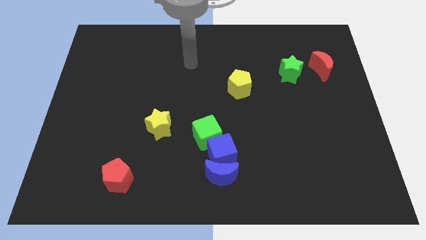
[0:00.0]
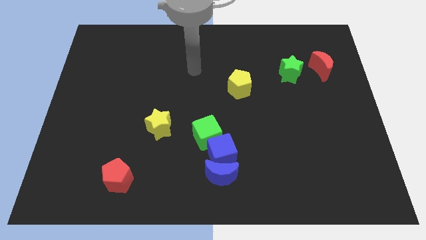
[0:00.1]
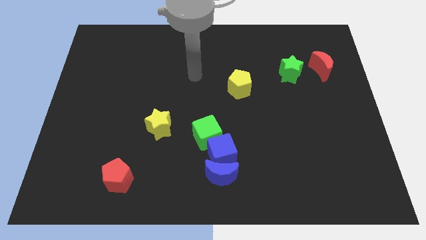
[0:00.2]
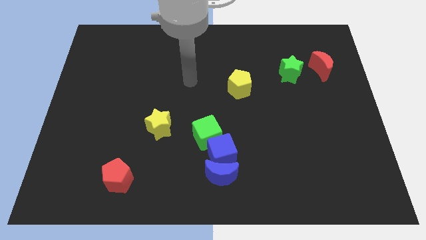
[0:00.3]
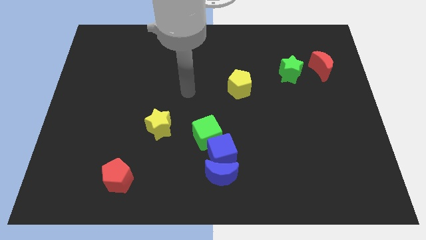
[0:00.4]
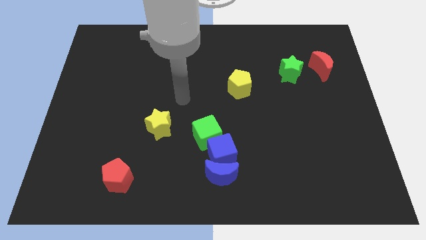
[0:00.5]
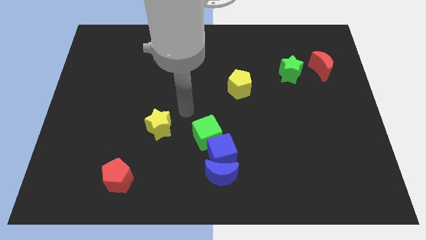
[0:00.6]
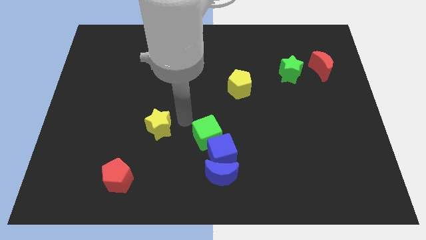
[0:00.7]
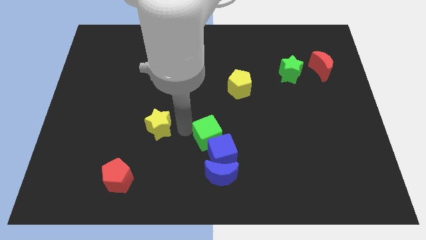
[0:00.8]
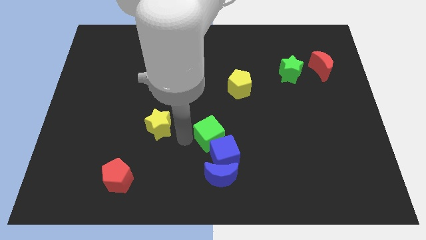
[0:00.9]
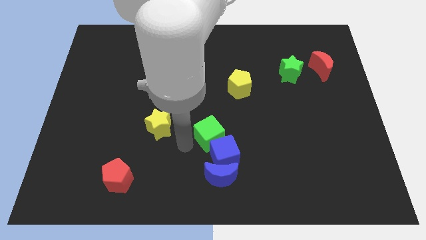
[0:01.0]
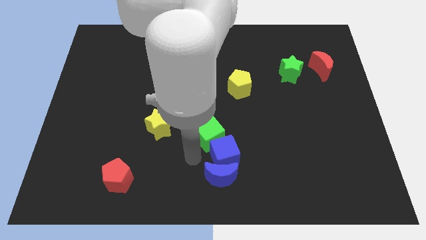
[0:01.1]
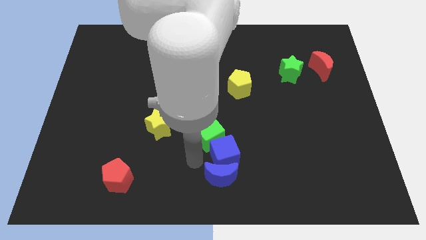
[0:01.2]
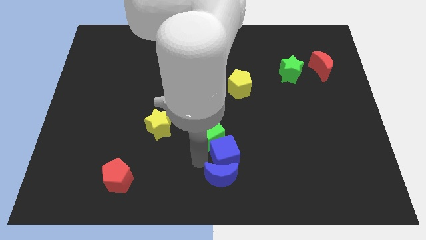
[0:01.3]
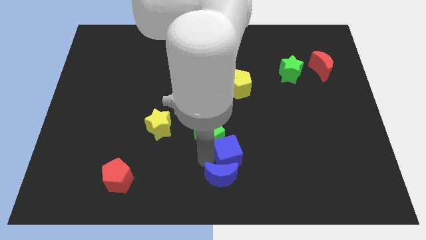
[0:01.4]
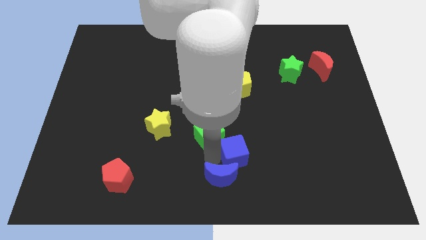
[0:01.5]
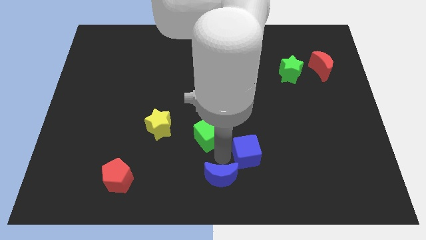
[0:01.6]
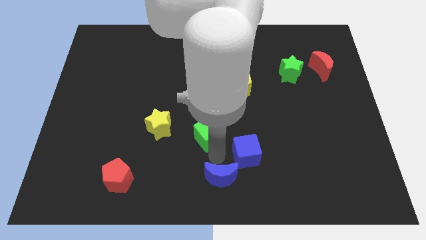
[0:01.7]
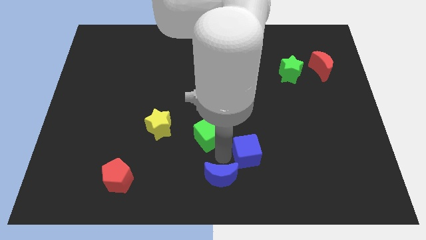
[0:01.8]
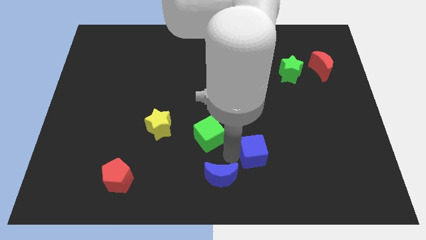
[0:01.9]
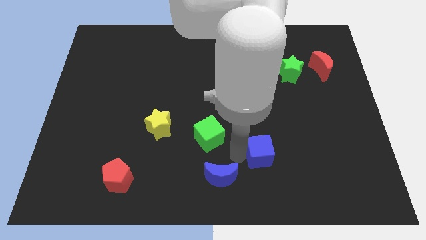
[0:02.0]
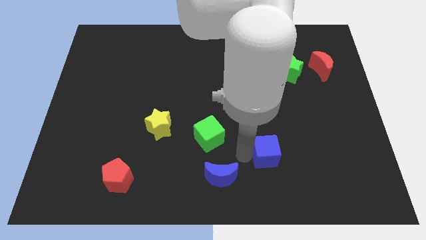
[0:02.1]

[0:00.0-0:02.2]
separate the blue cube from the blue moon and green cube

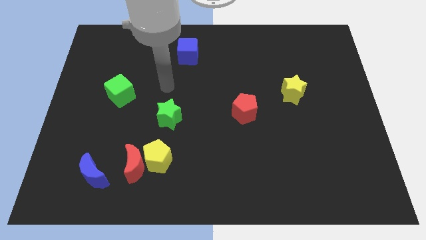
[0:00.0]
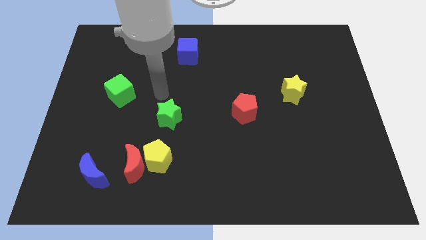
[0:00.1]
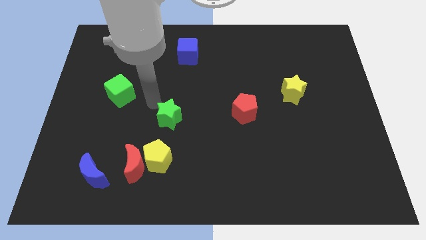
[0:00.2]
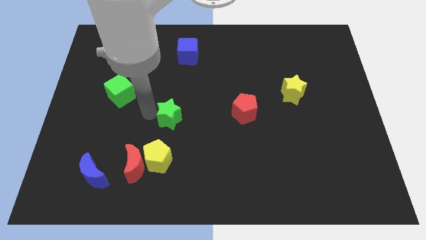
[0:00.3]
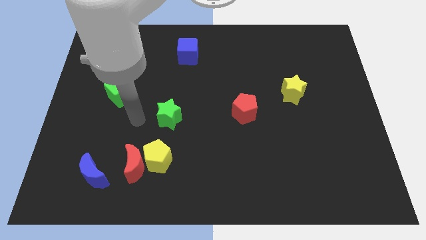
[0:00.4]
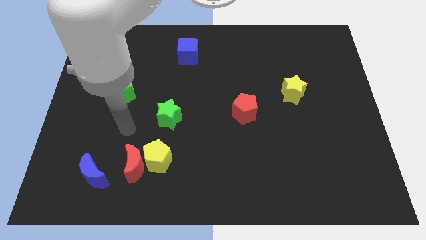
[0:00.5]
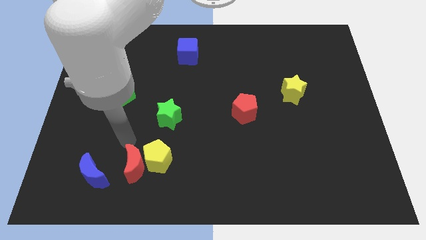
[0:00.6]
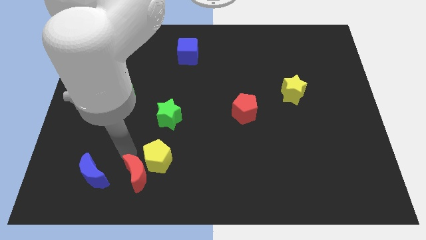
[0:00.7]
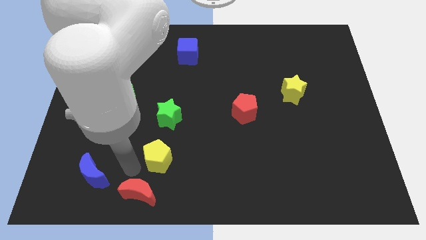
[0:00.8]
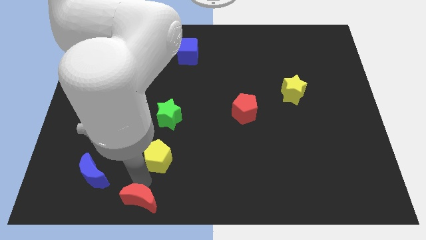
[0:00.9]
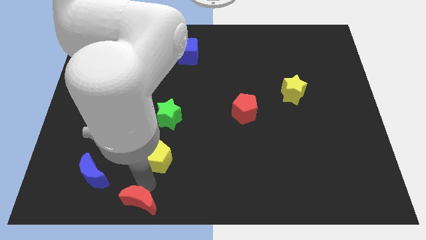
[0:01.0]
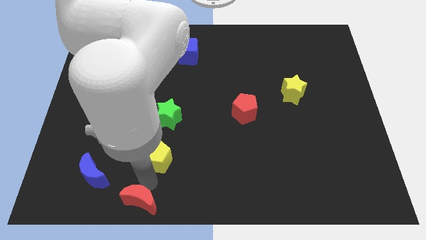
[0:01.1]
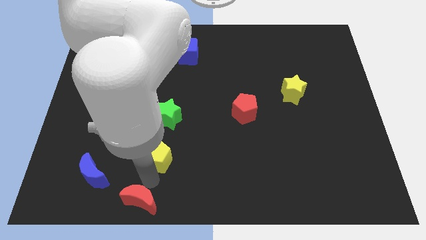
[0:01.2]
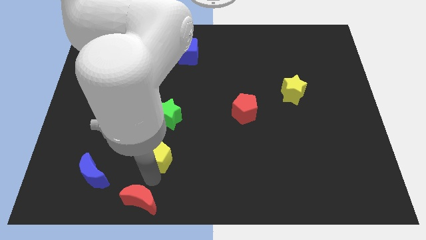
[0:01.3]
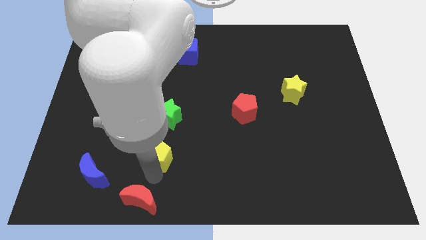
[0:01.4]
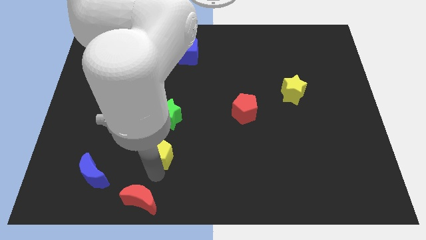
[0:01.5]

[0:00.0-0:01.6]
pull the yellow pentagon apart from the red moon

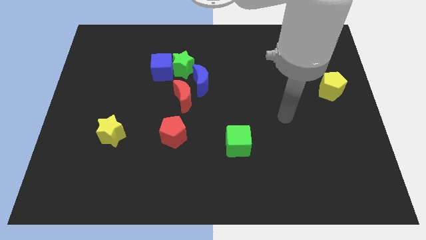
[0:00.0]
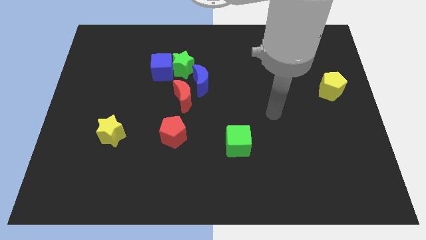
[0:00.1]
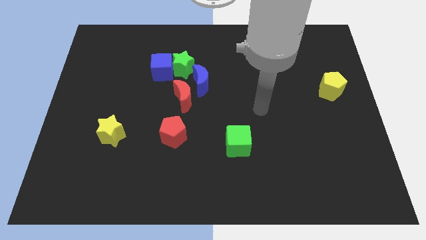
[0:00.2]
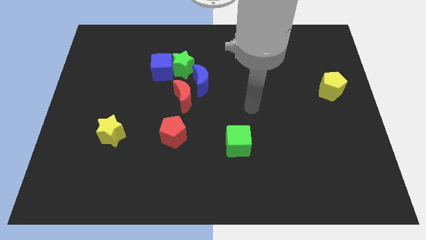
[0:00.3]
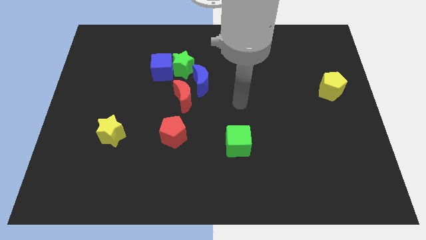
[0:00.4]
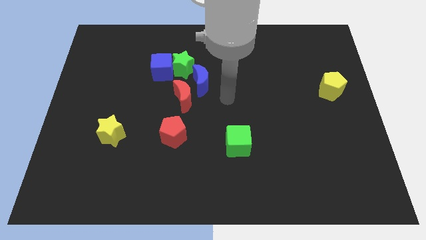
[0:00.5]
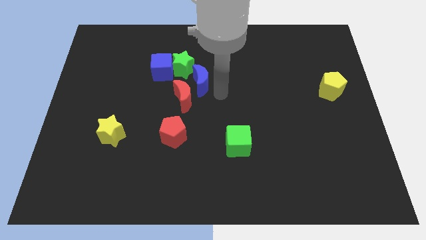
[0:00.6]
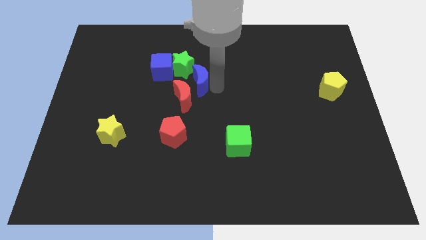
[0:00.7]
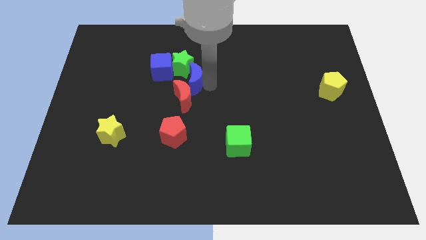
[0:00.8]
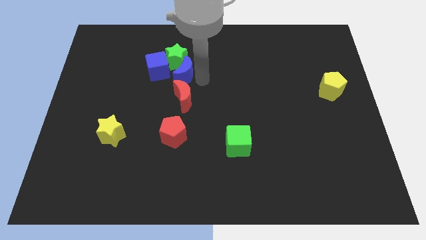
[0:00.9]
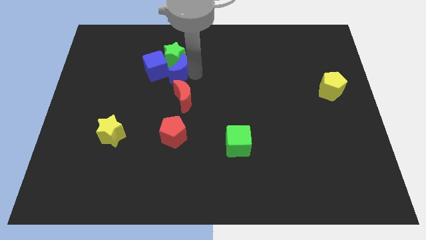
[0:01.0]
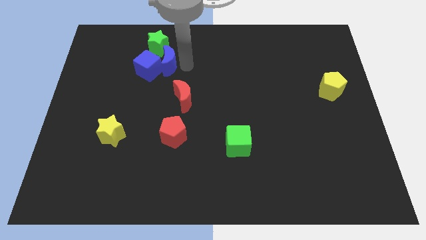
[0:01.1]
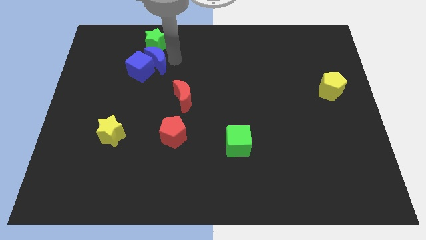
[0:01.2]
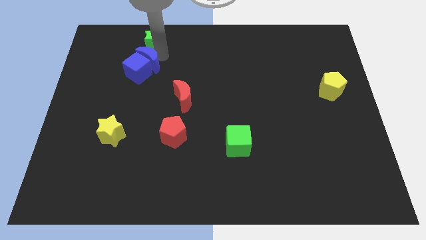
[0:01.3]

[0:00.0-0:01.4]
move the blue cube away from the green star

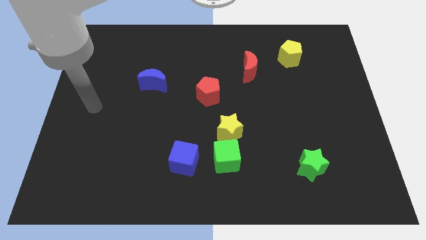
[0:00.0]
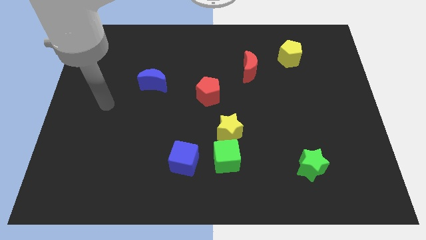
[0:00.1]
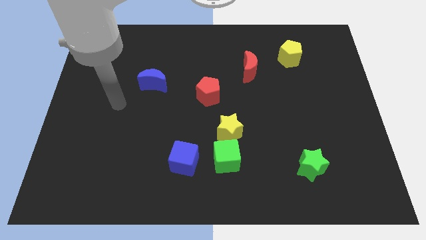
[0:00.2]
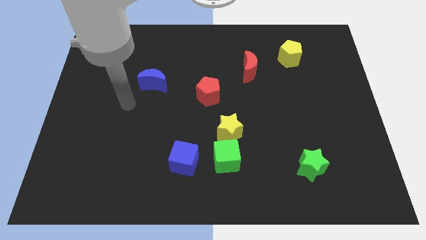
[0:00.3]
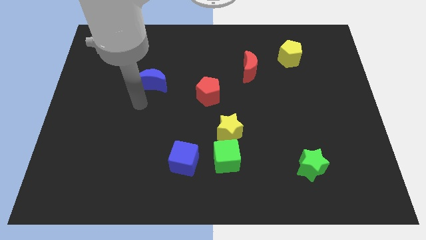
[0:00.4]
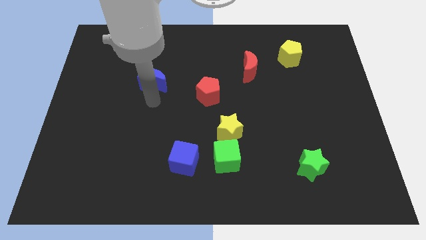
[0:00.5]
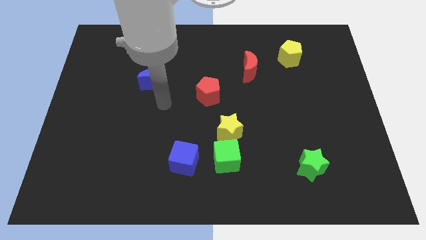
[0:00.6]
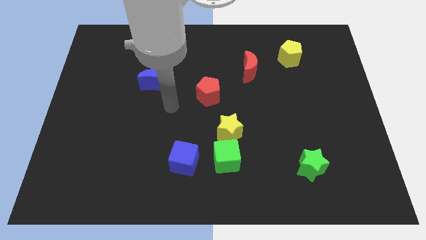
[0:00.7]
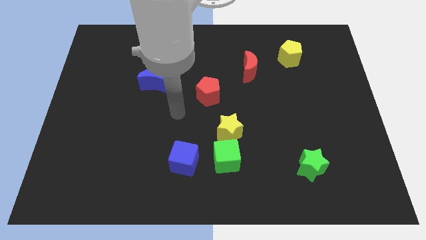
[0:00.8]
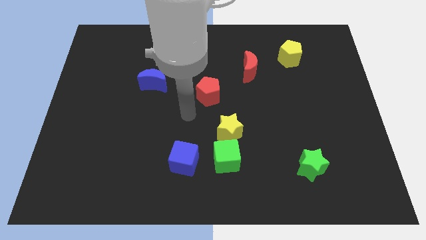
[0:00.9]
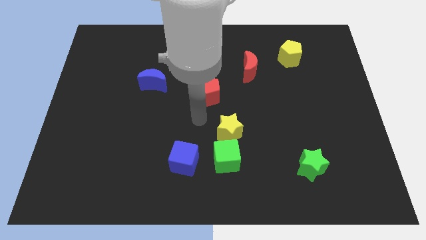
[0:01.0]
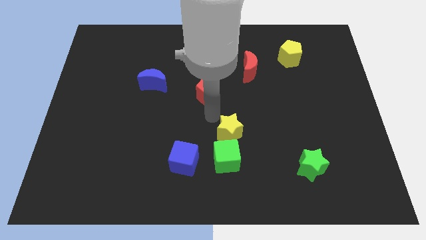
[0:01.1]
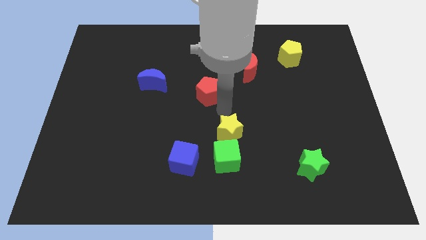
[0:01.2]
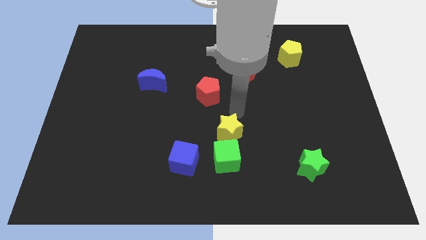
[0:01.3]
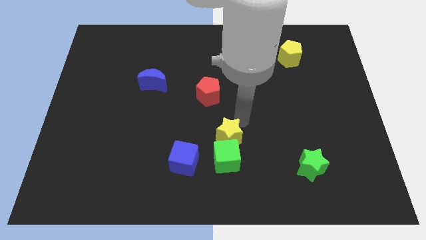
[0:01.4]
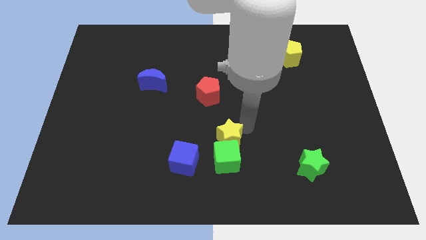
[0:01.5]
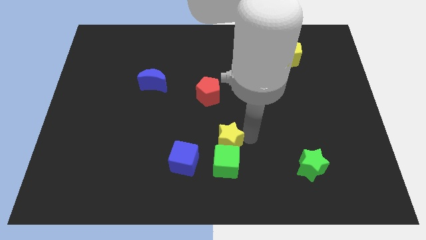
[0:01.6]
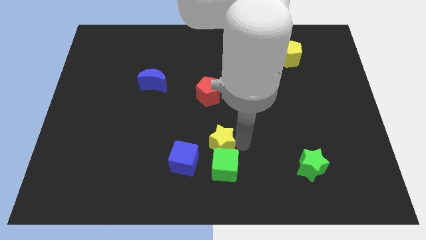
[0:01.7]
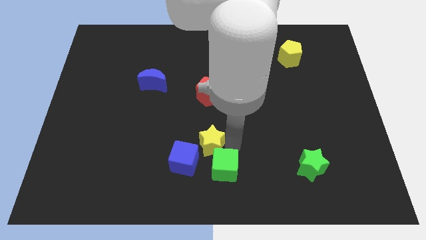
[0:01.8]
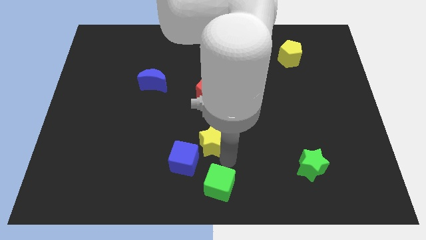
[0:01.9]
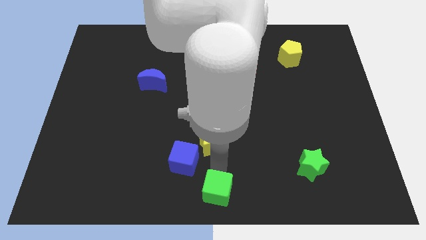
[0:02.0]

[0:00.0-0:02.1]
pull the yellow star apart from the green cube

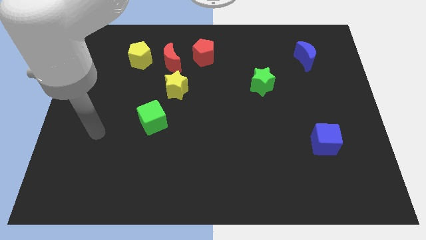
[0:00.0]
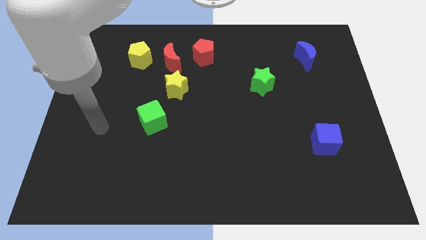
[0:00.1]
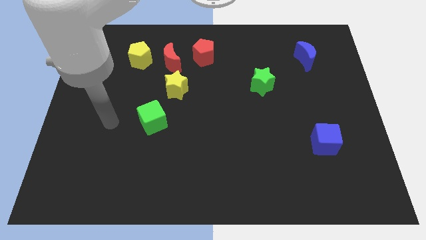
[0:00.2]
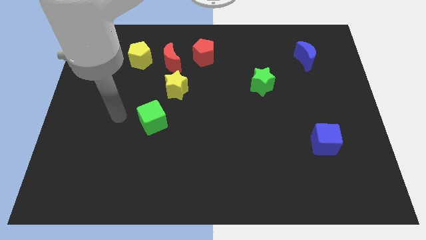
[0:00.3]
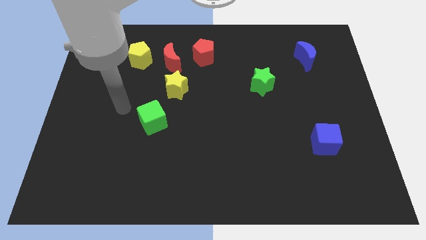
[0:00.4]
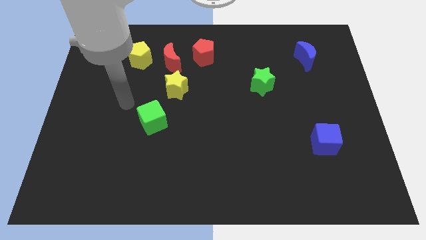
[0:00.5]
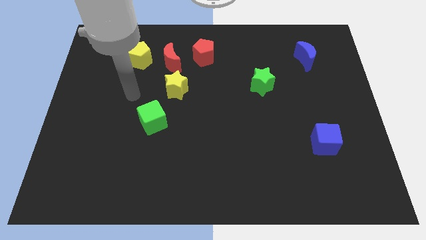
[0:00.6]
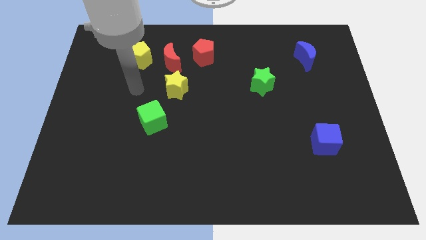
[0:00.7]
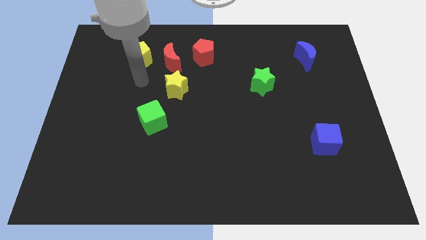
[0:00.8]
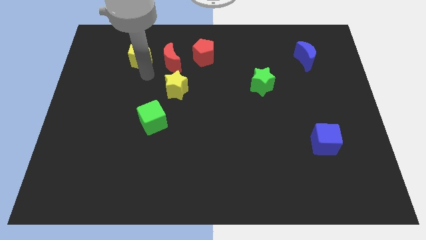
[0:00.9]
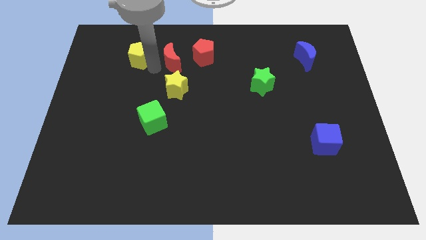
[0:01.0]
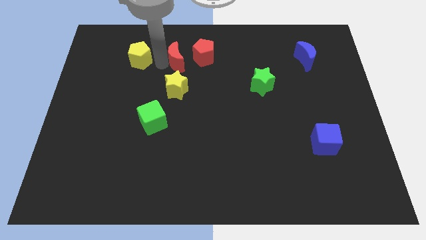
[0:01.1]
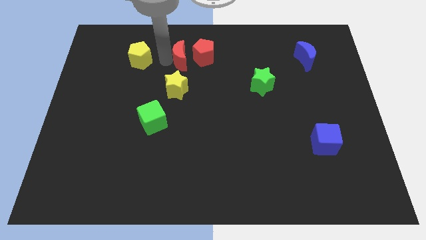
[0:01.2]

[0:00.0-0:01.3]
move the yellow pentagon away from the red moon

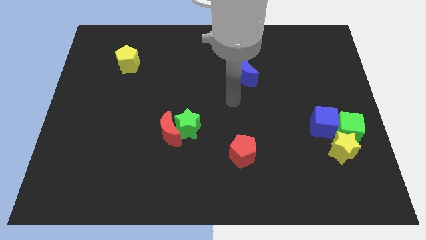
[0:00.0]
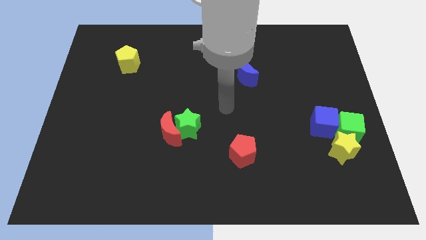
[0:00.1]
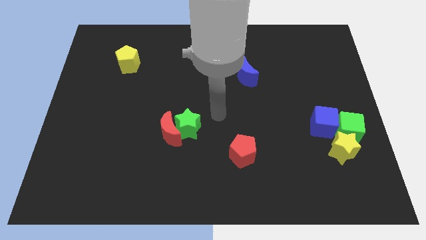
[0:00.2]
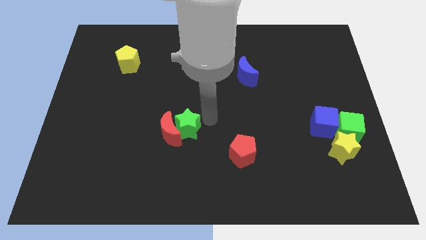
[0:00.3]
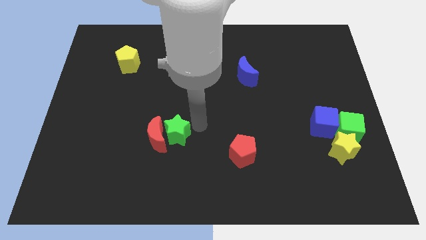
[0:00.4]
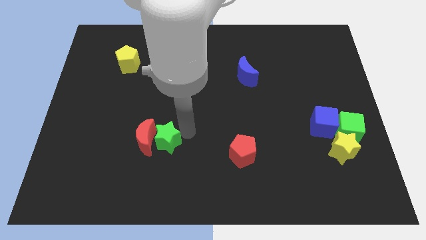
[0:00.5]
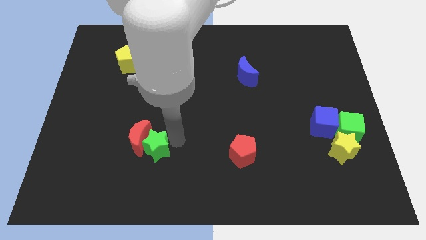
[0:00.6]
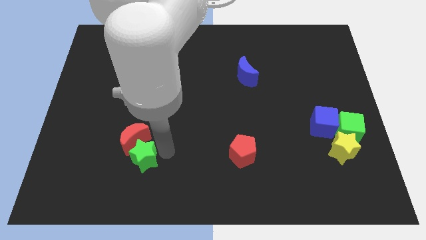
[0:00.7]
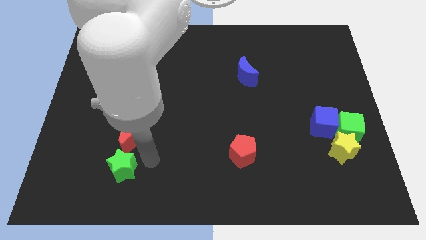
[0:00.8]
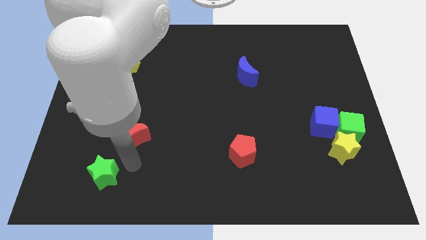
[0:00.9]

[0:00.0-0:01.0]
separate the red moon from the green star
